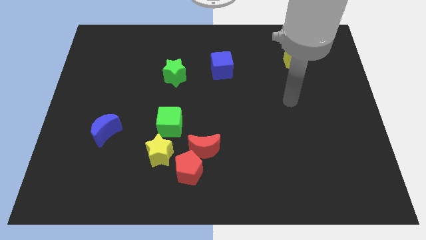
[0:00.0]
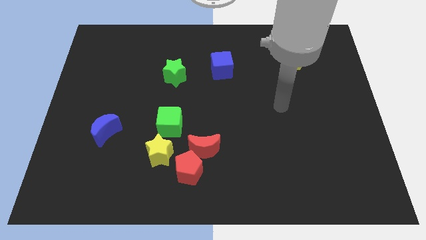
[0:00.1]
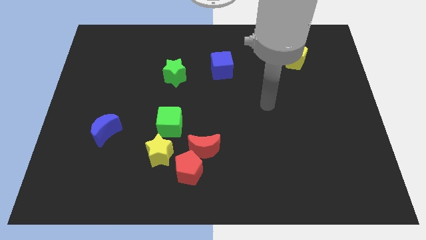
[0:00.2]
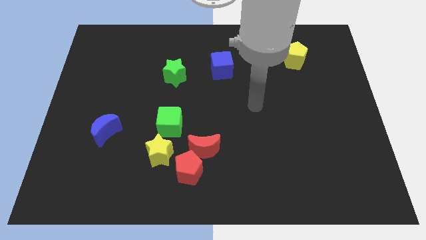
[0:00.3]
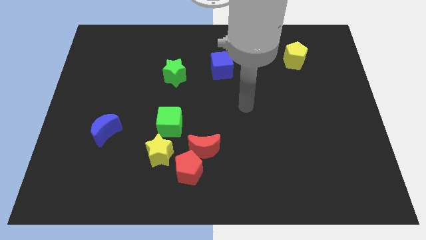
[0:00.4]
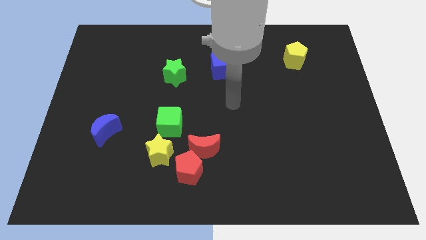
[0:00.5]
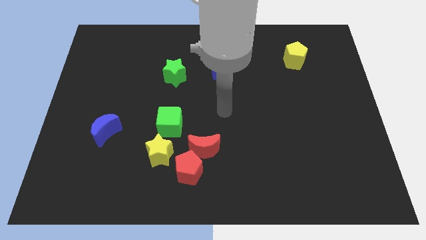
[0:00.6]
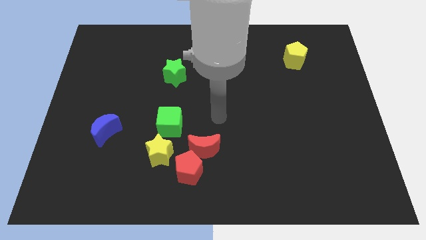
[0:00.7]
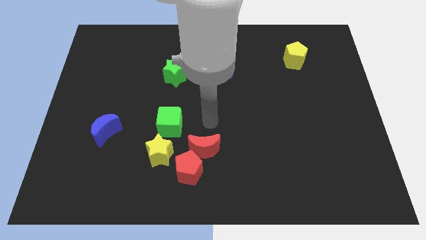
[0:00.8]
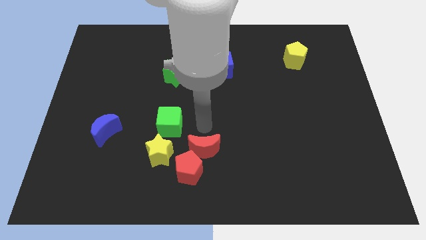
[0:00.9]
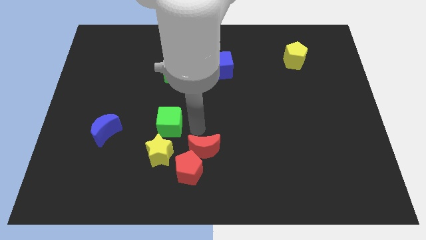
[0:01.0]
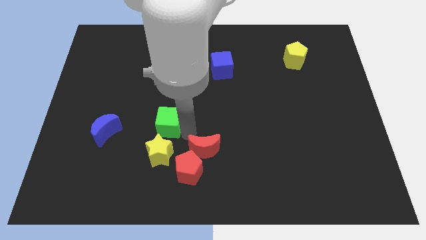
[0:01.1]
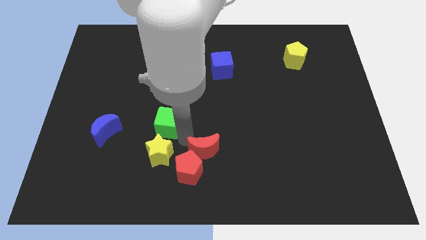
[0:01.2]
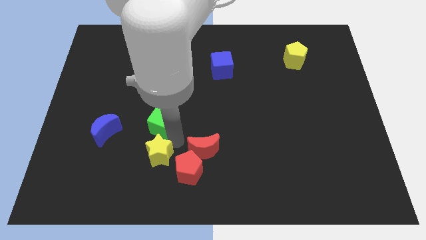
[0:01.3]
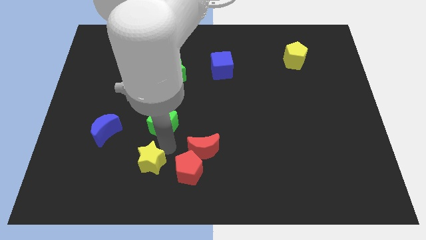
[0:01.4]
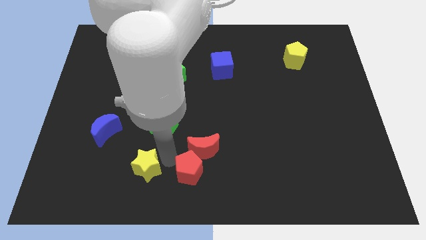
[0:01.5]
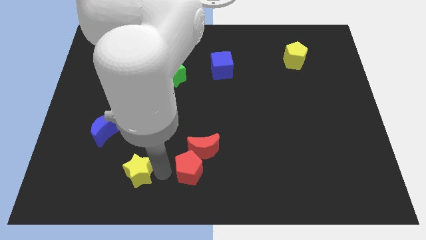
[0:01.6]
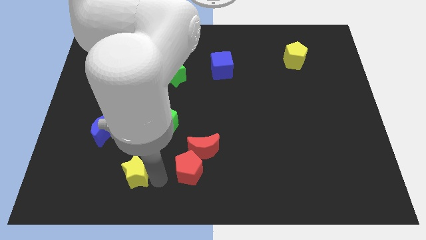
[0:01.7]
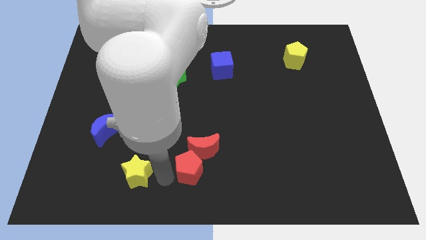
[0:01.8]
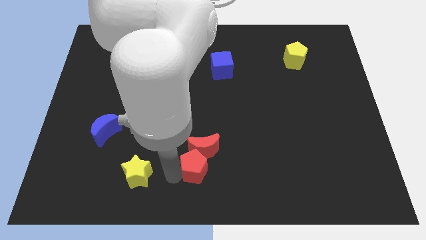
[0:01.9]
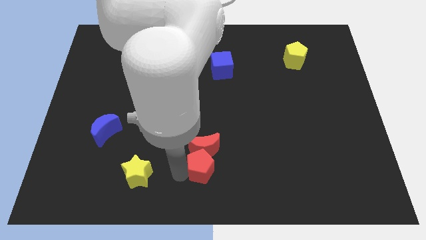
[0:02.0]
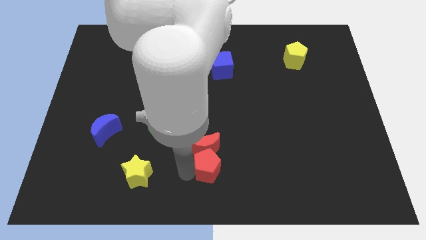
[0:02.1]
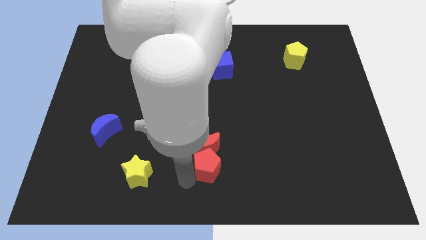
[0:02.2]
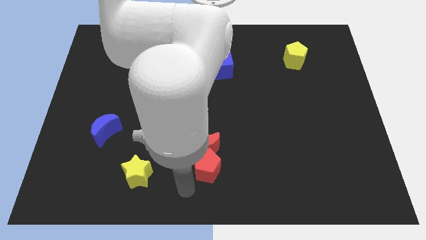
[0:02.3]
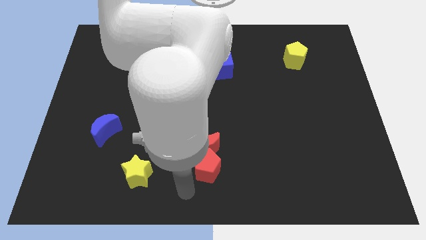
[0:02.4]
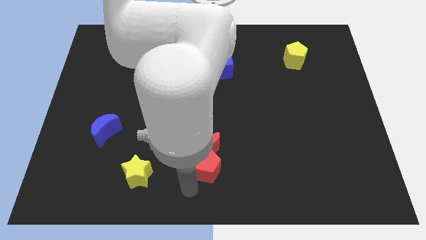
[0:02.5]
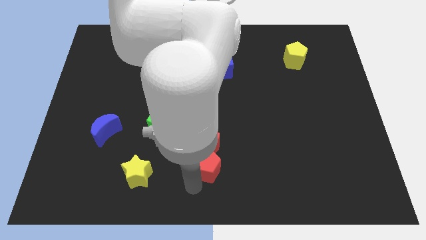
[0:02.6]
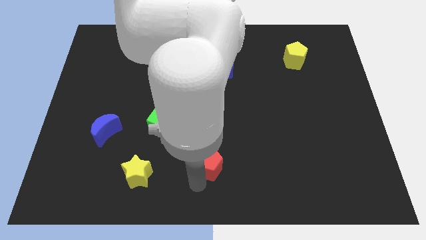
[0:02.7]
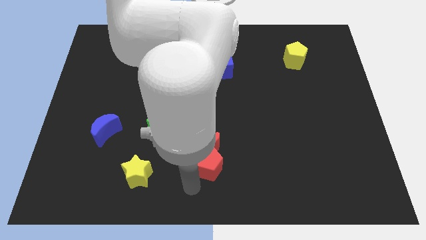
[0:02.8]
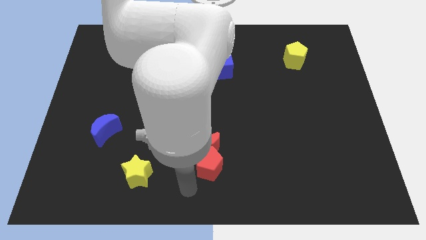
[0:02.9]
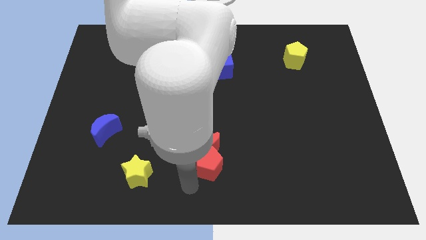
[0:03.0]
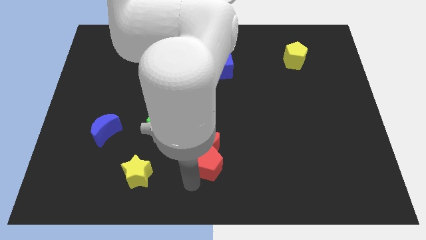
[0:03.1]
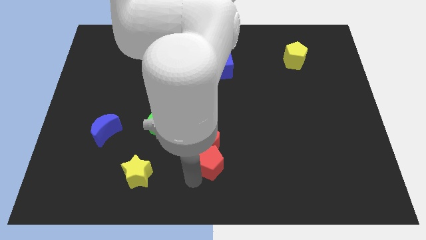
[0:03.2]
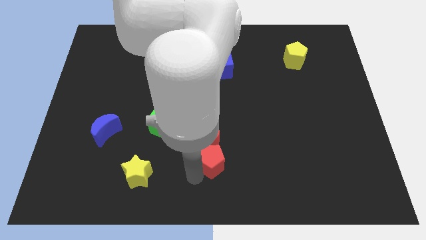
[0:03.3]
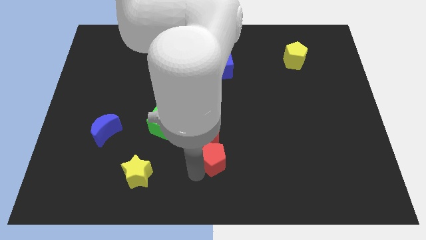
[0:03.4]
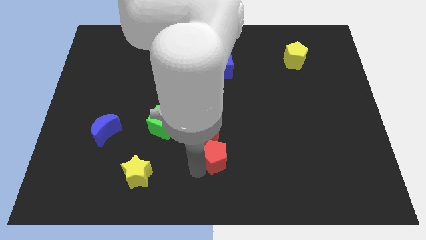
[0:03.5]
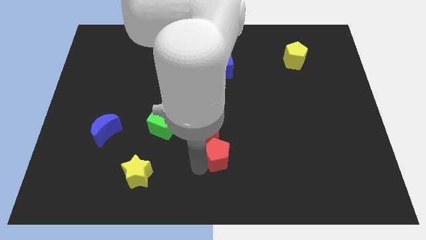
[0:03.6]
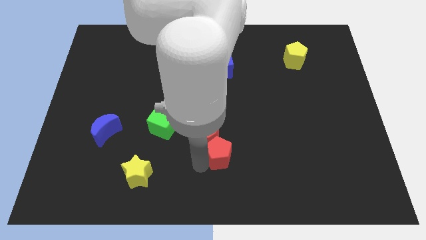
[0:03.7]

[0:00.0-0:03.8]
slightly slide the red pentagon up and to the right diagonally

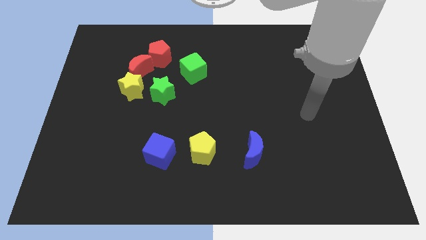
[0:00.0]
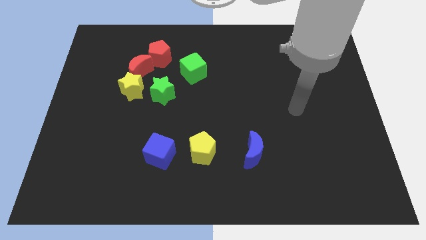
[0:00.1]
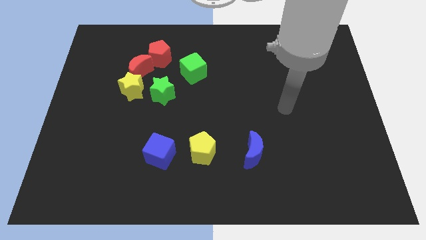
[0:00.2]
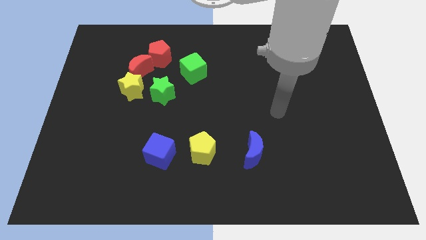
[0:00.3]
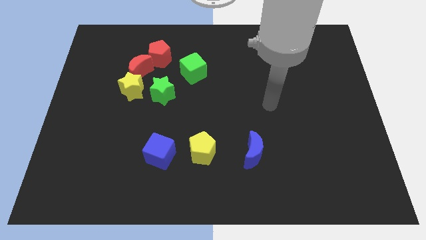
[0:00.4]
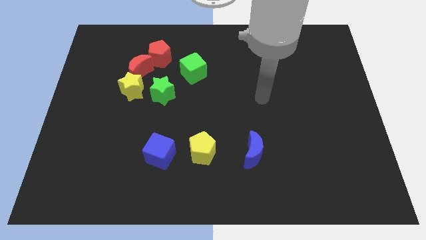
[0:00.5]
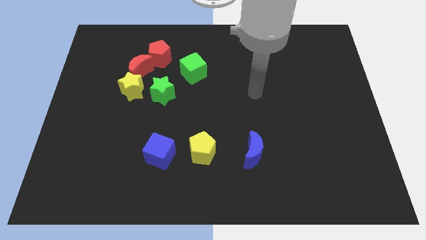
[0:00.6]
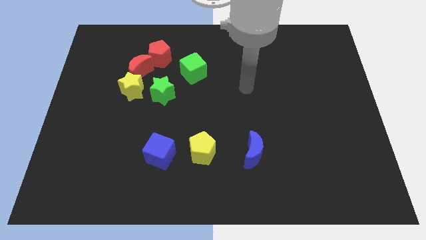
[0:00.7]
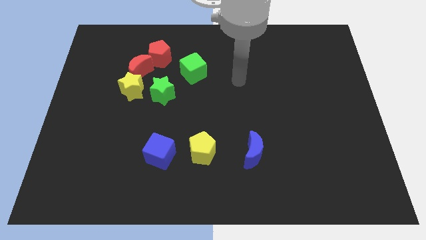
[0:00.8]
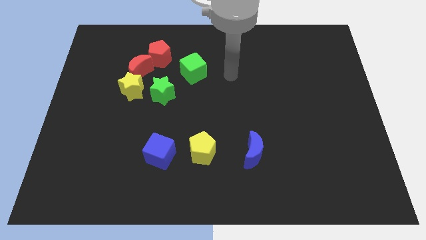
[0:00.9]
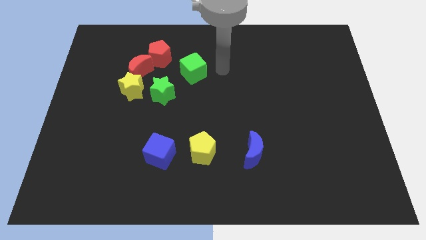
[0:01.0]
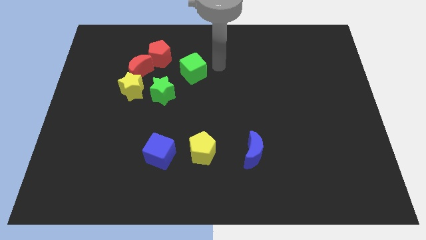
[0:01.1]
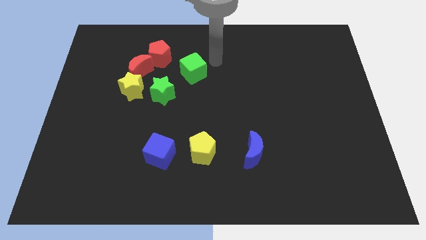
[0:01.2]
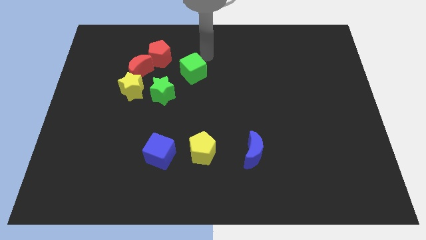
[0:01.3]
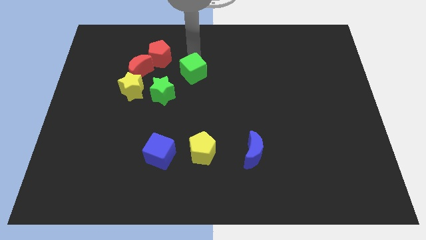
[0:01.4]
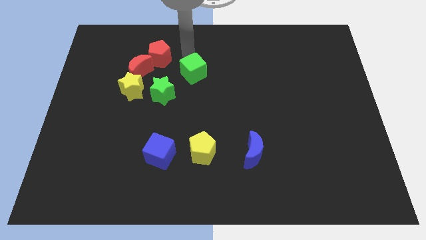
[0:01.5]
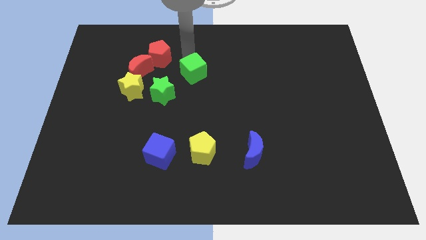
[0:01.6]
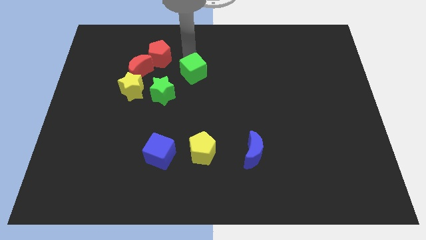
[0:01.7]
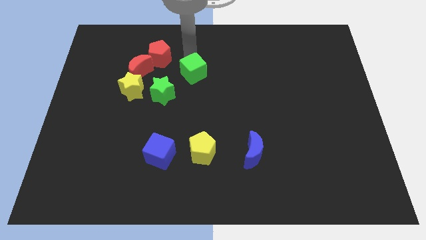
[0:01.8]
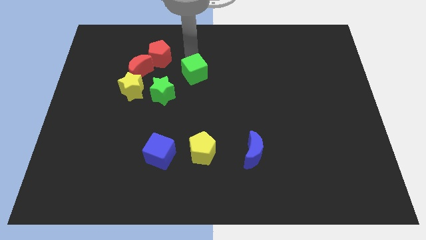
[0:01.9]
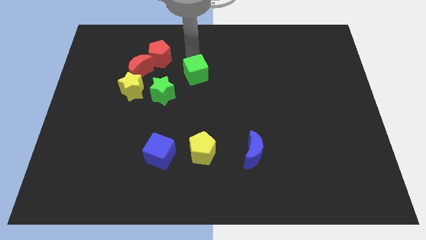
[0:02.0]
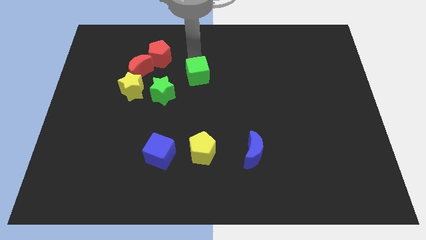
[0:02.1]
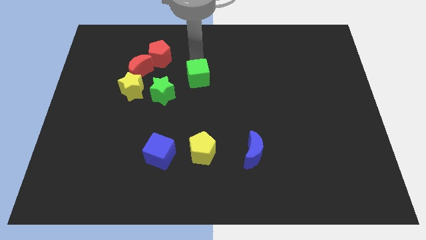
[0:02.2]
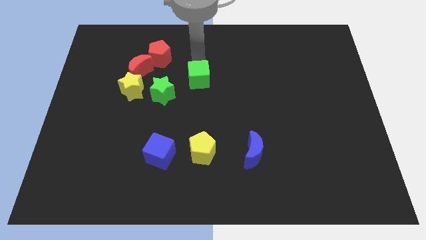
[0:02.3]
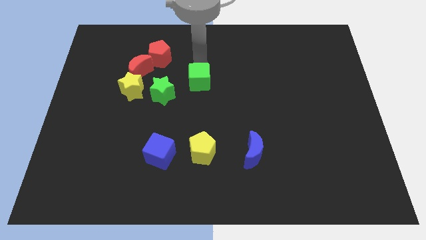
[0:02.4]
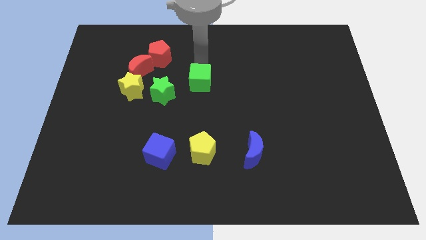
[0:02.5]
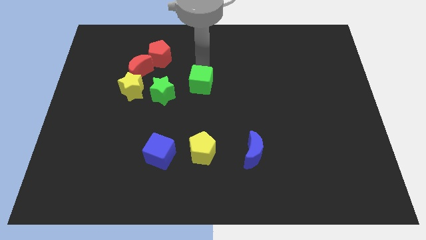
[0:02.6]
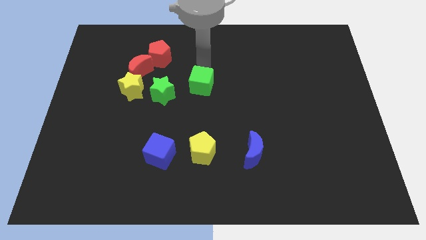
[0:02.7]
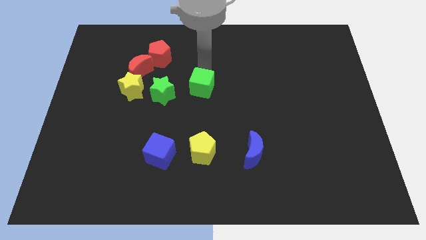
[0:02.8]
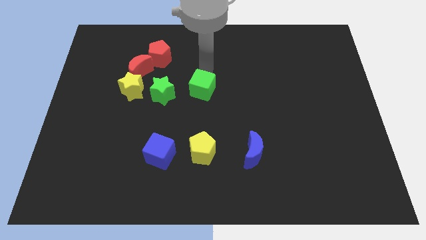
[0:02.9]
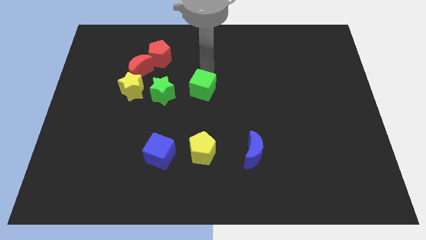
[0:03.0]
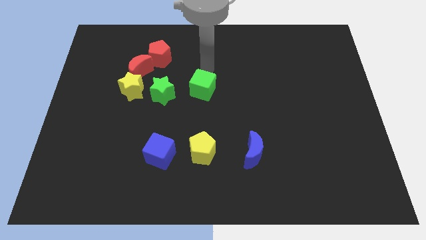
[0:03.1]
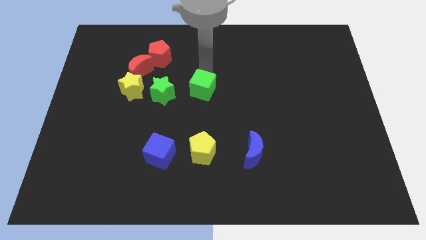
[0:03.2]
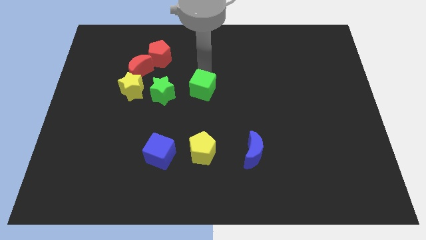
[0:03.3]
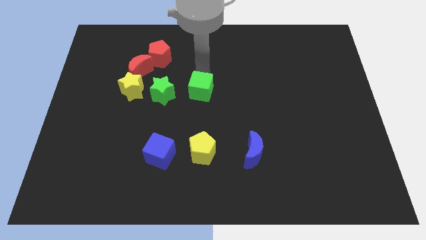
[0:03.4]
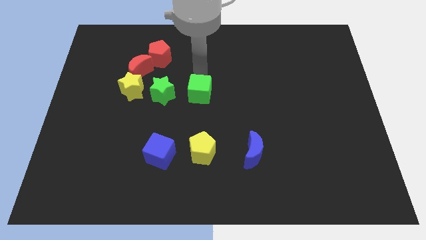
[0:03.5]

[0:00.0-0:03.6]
slide the green cube slightly downwards

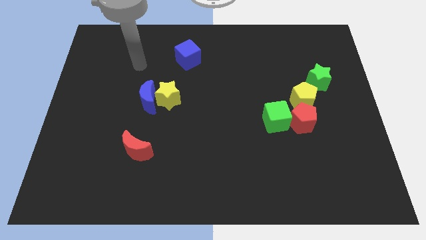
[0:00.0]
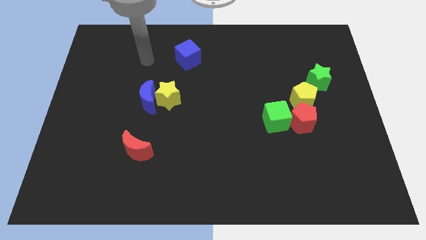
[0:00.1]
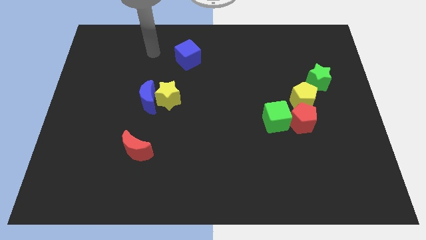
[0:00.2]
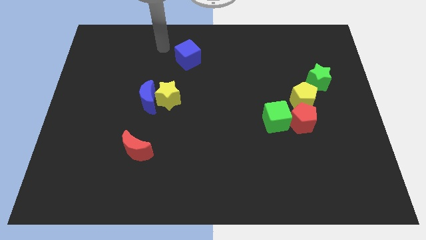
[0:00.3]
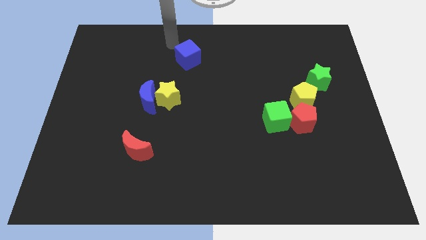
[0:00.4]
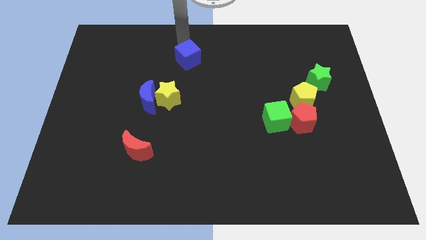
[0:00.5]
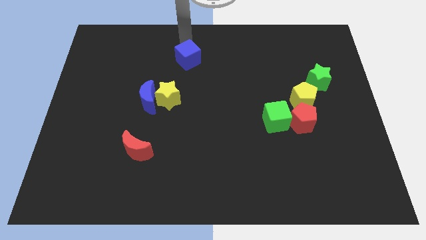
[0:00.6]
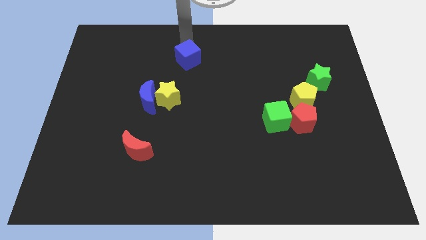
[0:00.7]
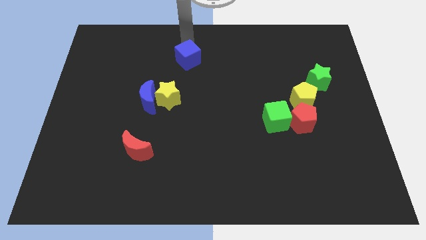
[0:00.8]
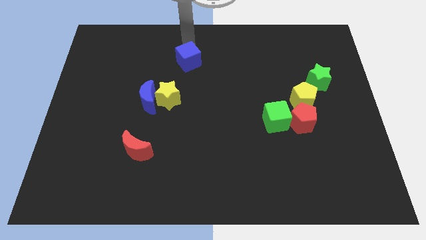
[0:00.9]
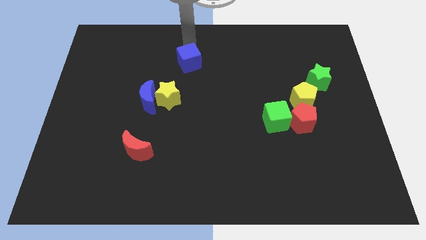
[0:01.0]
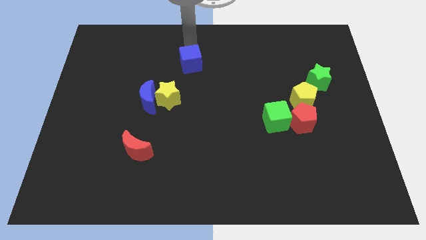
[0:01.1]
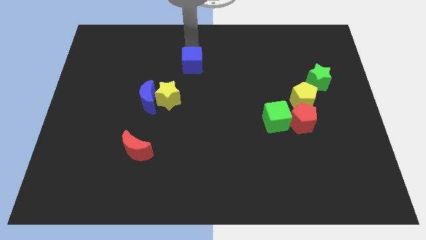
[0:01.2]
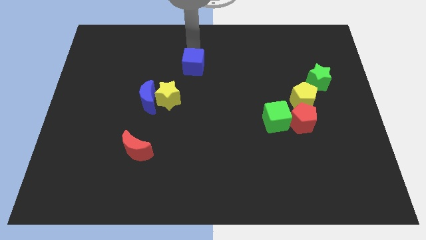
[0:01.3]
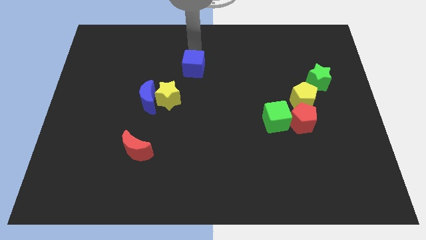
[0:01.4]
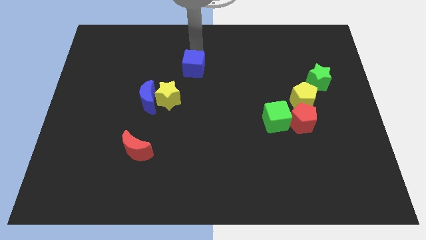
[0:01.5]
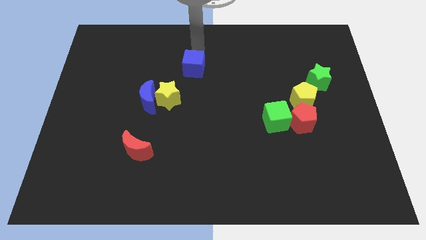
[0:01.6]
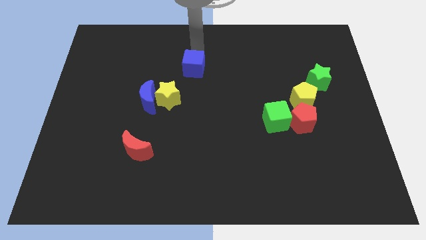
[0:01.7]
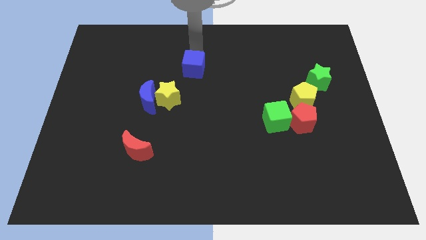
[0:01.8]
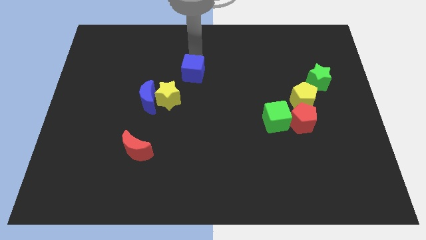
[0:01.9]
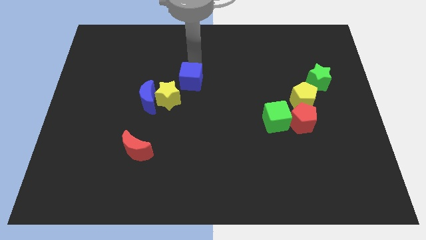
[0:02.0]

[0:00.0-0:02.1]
push the blue cube a bit down
